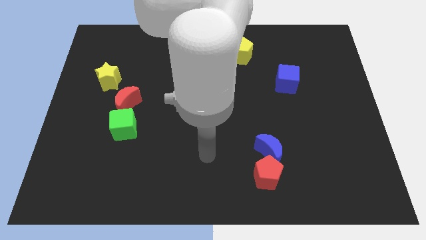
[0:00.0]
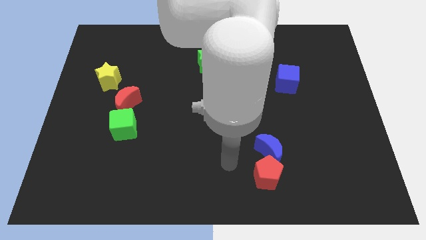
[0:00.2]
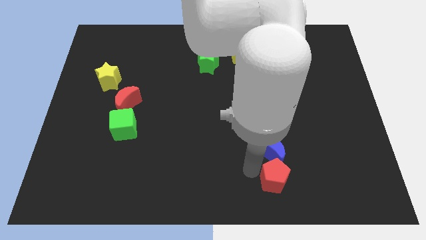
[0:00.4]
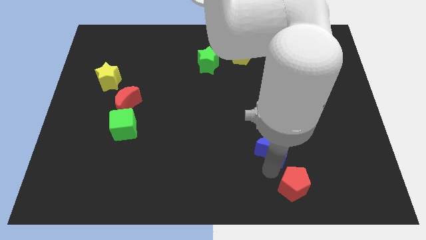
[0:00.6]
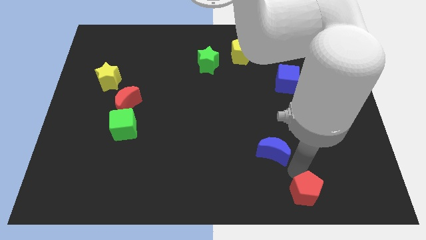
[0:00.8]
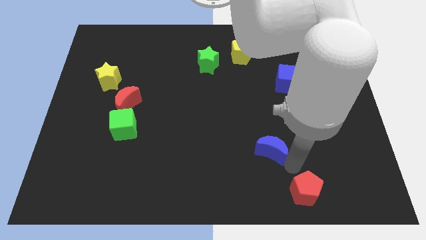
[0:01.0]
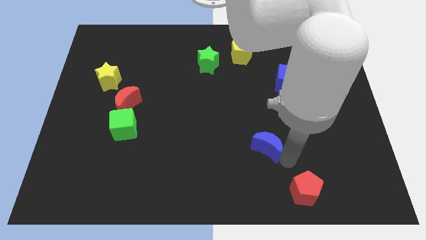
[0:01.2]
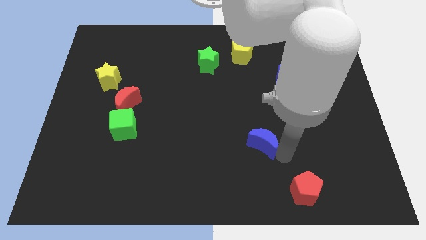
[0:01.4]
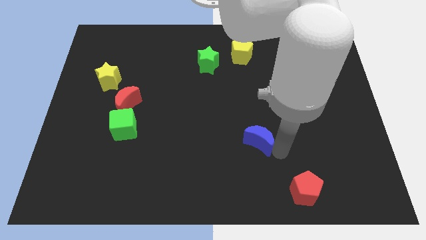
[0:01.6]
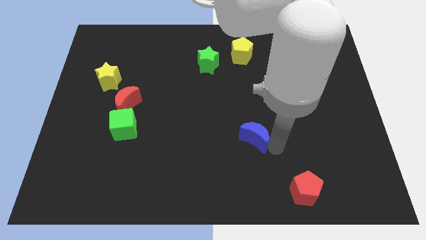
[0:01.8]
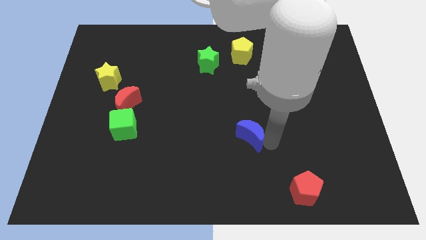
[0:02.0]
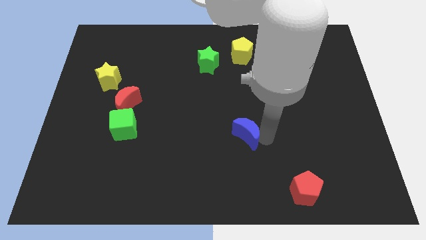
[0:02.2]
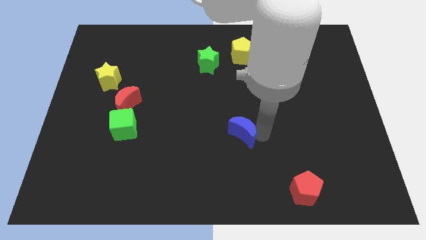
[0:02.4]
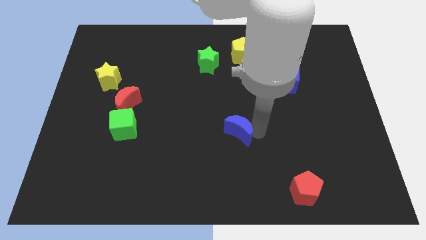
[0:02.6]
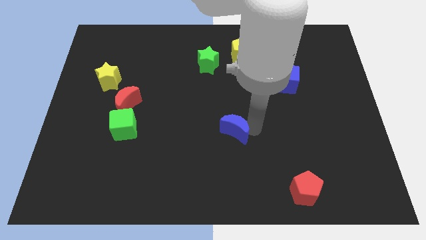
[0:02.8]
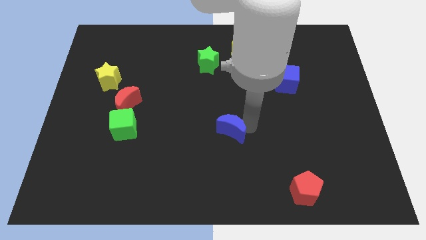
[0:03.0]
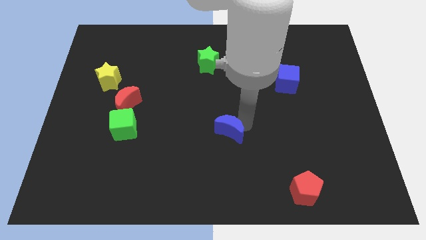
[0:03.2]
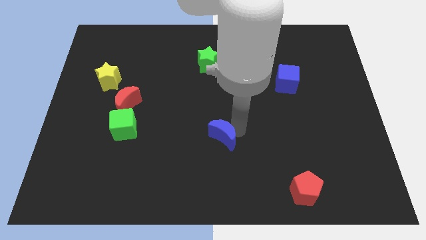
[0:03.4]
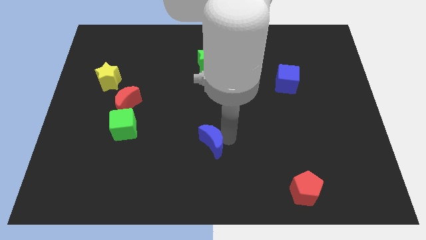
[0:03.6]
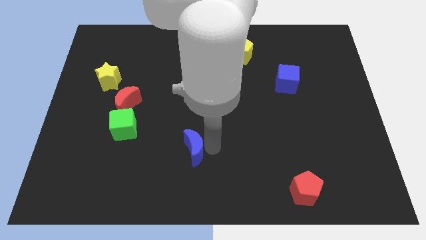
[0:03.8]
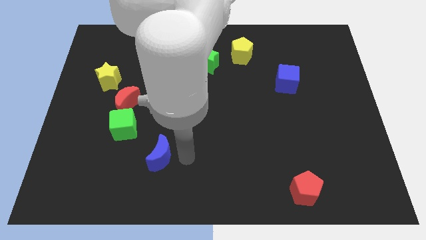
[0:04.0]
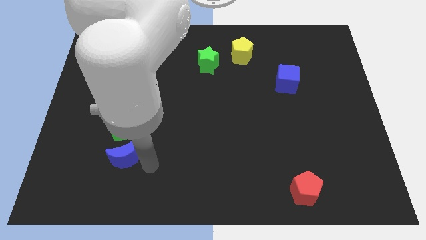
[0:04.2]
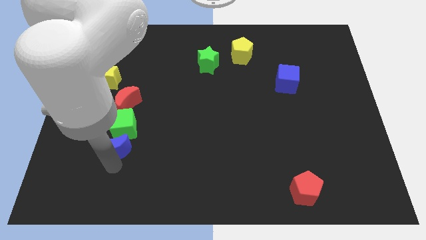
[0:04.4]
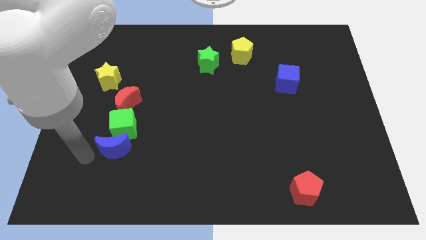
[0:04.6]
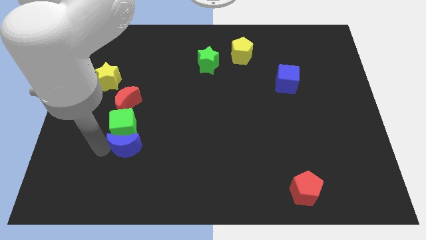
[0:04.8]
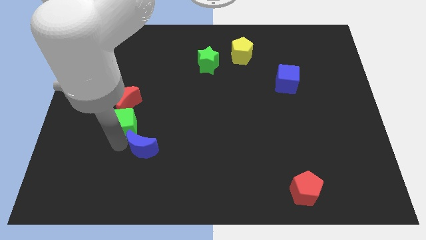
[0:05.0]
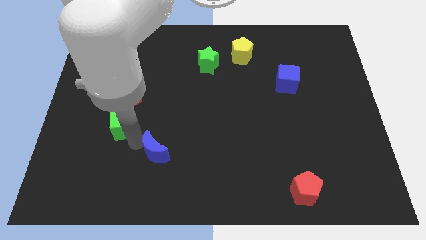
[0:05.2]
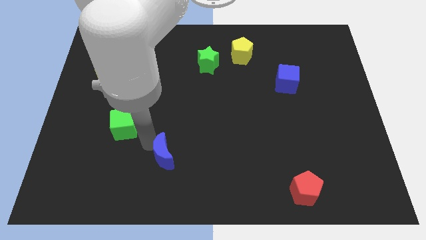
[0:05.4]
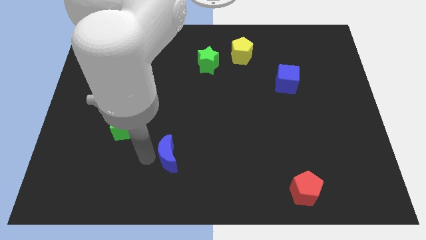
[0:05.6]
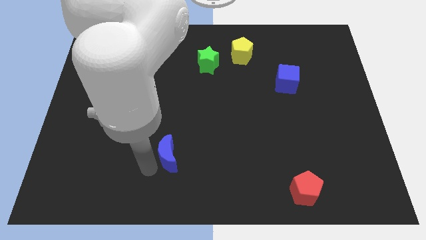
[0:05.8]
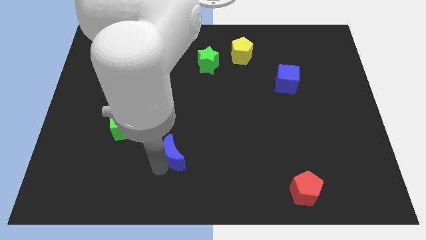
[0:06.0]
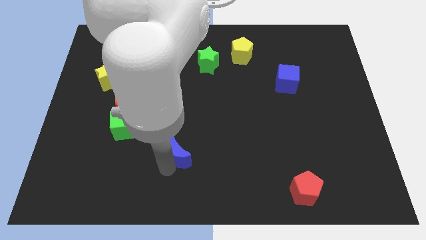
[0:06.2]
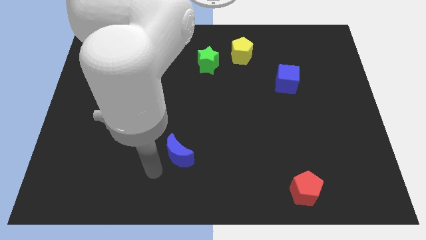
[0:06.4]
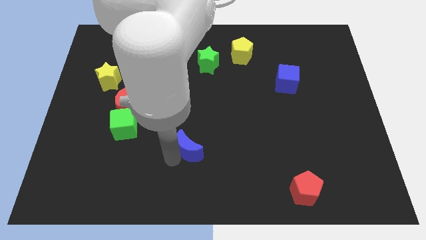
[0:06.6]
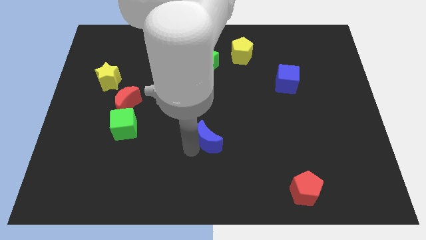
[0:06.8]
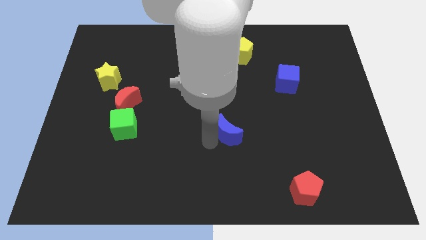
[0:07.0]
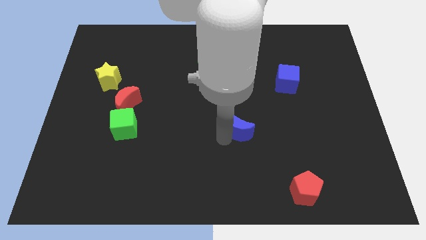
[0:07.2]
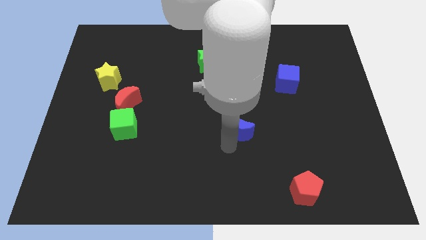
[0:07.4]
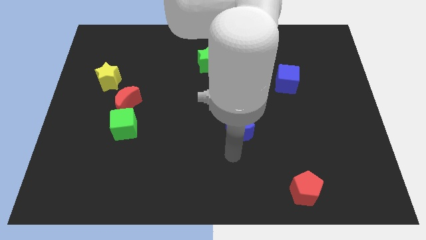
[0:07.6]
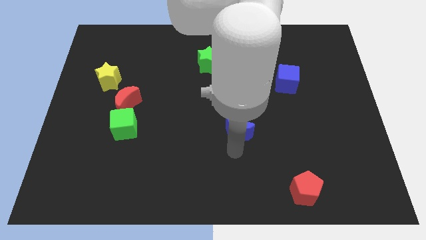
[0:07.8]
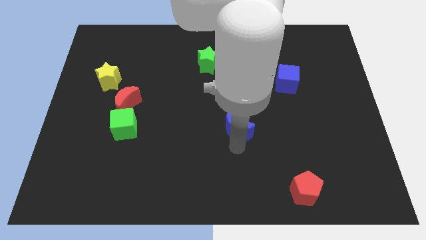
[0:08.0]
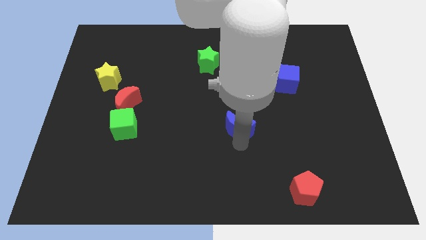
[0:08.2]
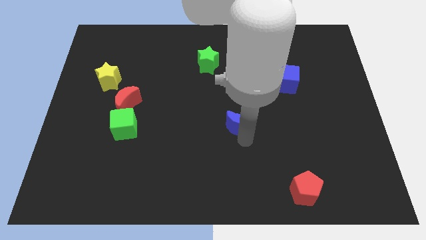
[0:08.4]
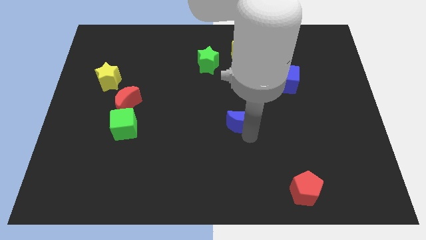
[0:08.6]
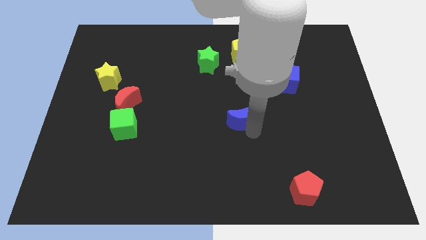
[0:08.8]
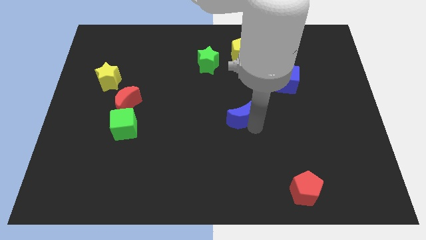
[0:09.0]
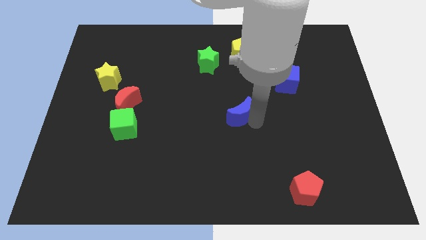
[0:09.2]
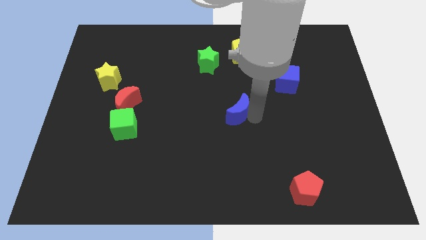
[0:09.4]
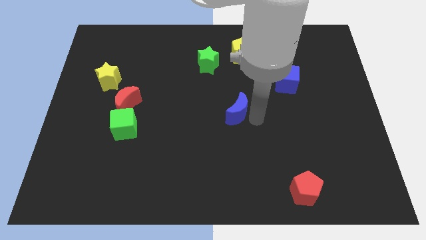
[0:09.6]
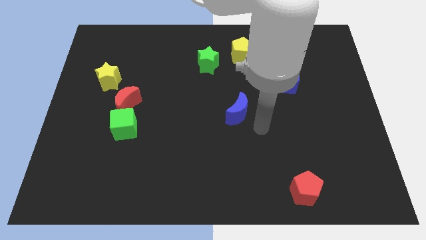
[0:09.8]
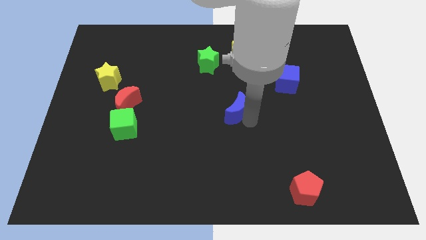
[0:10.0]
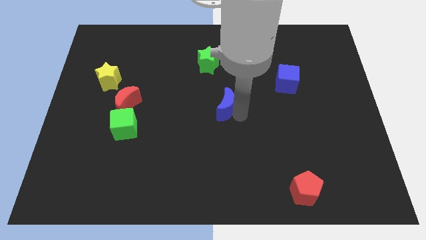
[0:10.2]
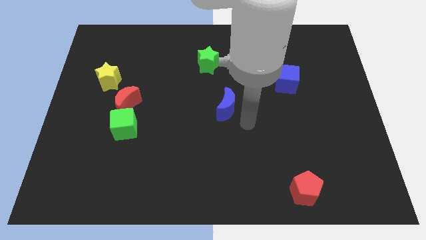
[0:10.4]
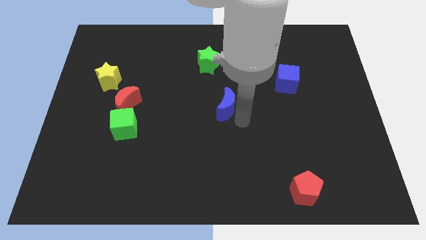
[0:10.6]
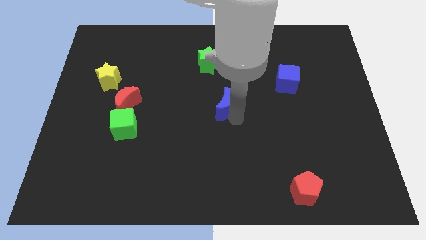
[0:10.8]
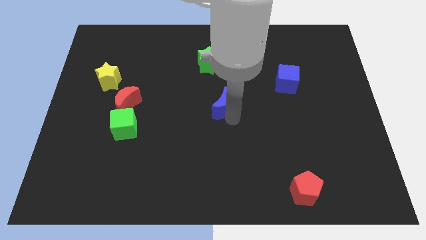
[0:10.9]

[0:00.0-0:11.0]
put the blue moon to the bottom of the green star

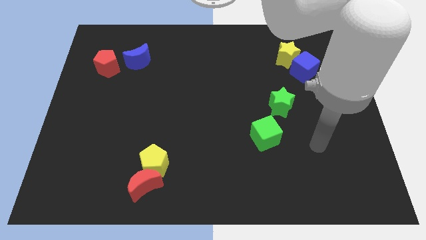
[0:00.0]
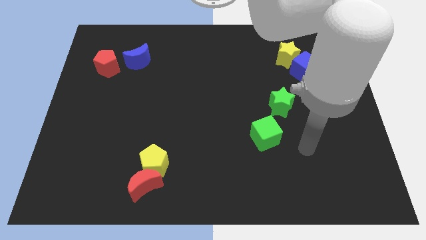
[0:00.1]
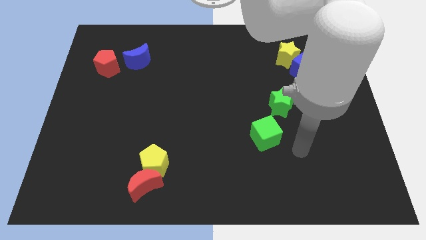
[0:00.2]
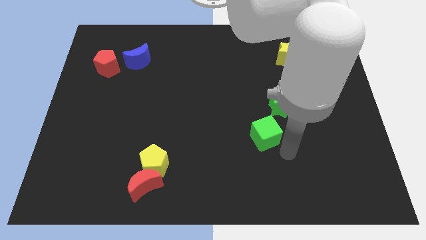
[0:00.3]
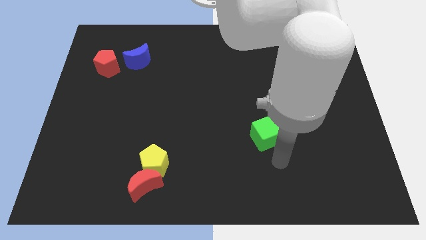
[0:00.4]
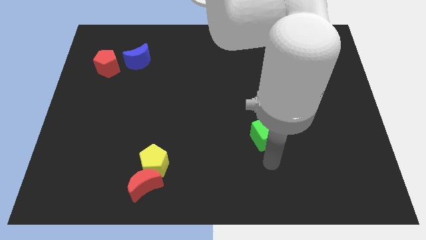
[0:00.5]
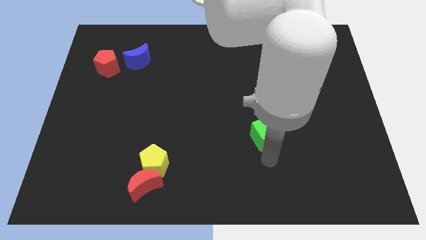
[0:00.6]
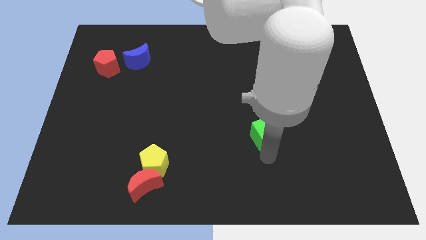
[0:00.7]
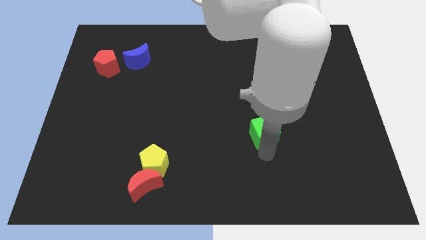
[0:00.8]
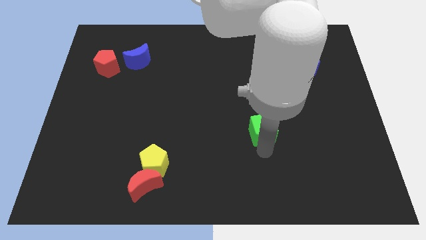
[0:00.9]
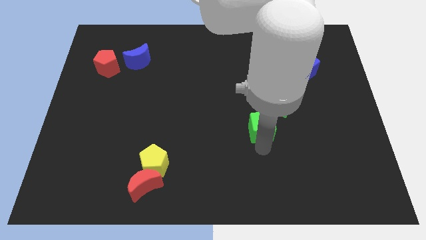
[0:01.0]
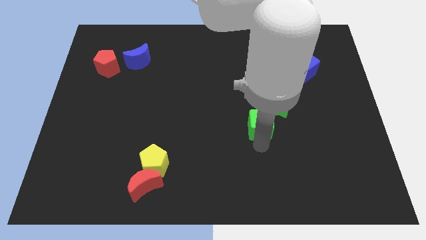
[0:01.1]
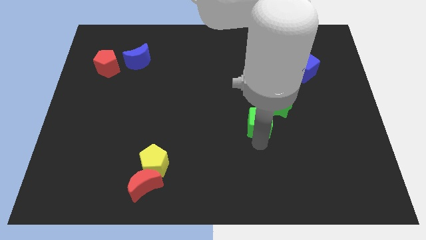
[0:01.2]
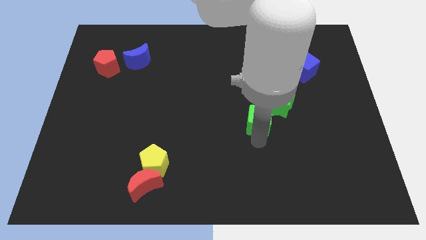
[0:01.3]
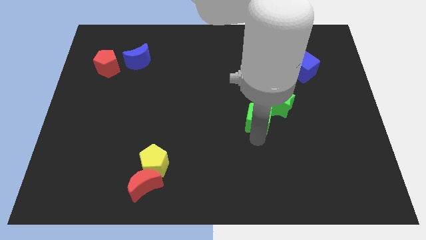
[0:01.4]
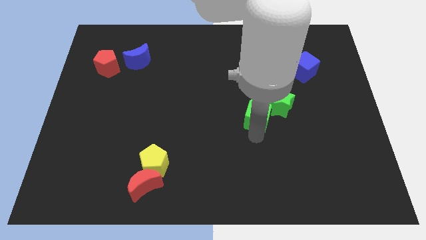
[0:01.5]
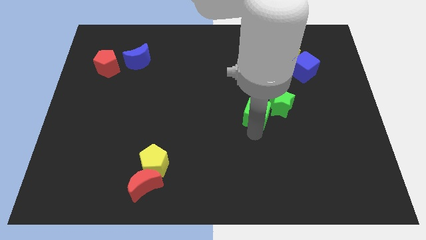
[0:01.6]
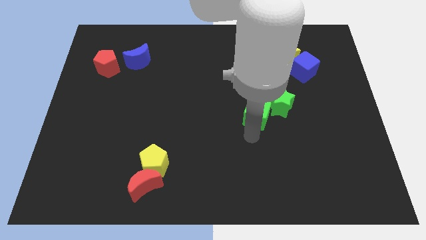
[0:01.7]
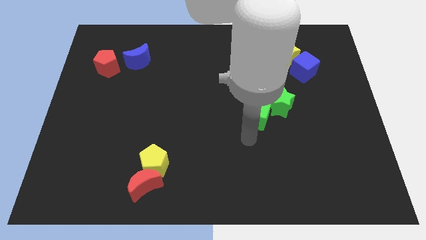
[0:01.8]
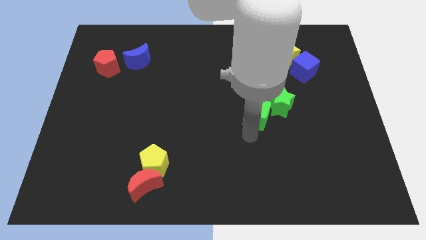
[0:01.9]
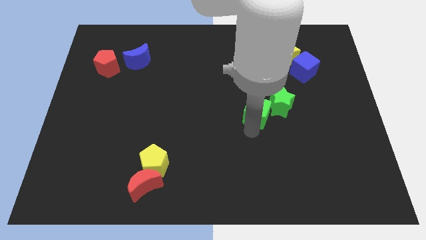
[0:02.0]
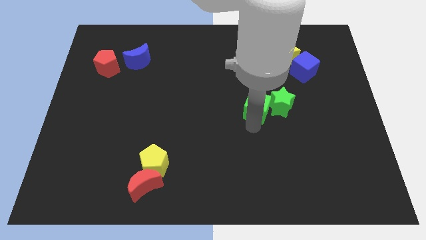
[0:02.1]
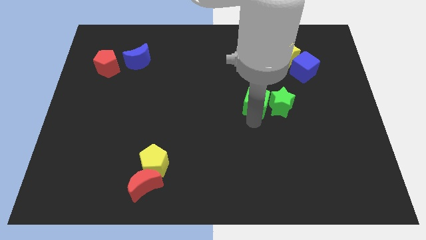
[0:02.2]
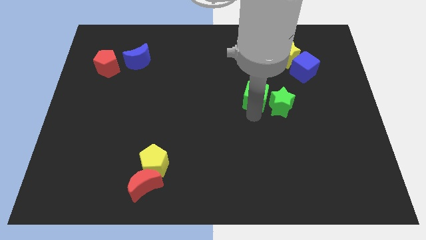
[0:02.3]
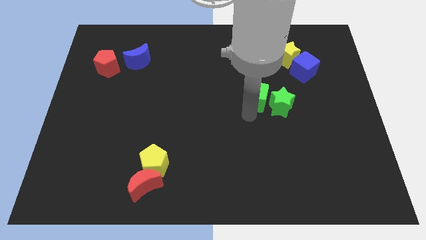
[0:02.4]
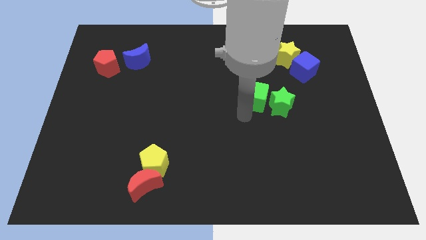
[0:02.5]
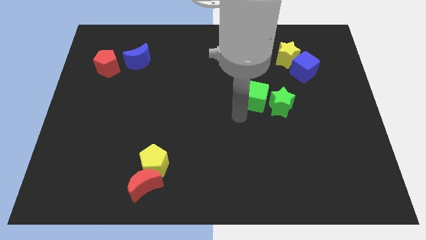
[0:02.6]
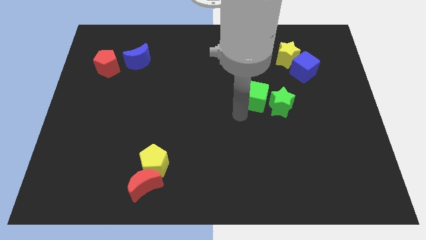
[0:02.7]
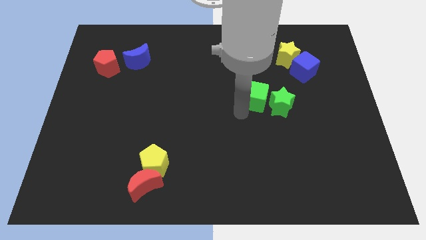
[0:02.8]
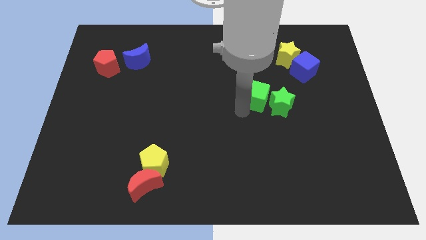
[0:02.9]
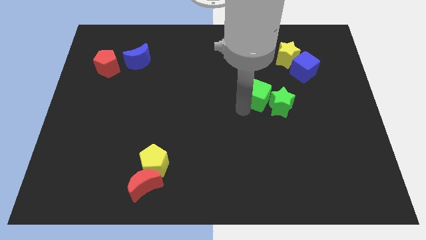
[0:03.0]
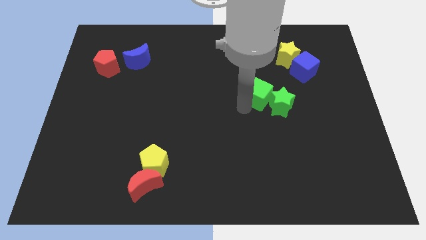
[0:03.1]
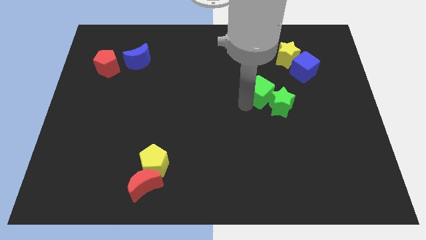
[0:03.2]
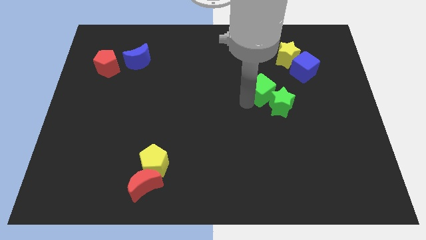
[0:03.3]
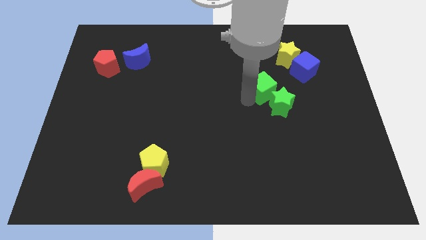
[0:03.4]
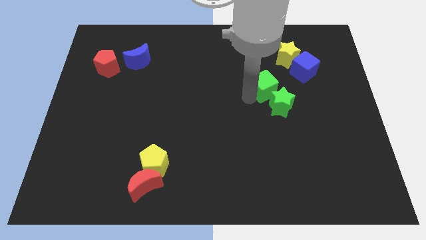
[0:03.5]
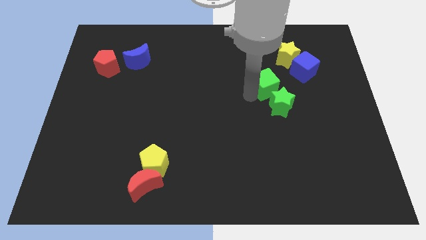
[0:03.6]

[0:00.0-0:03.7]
move the green cube to the bottom left side of the blue cube
